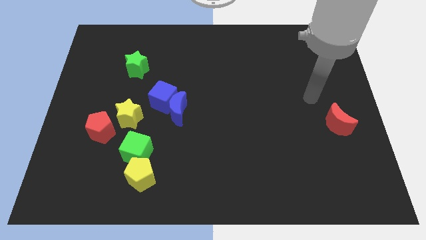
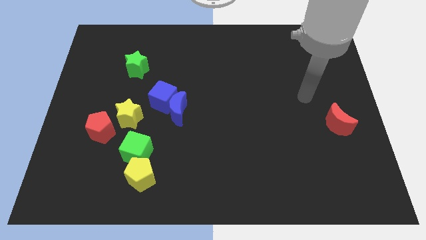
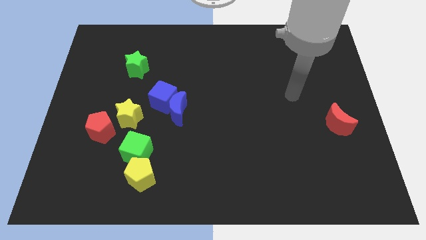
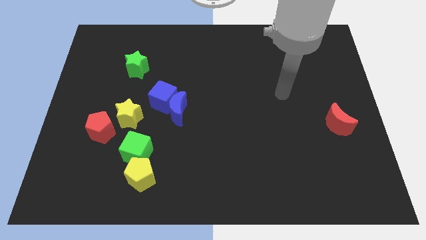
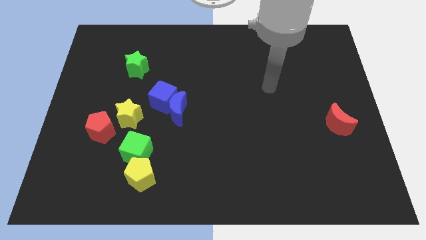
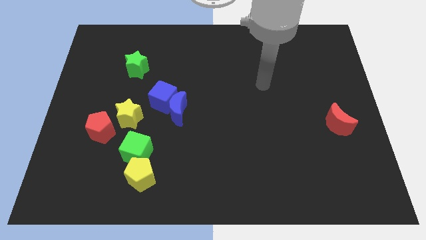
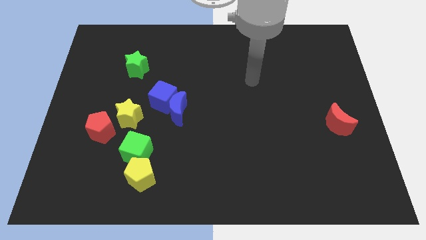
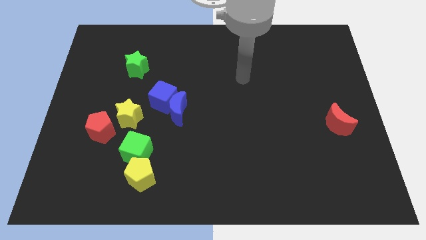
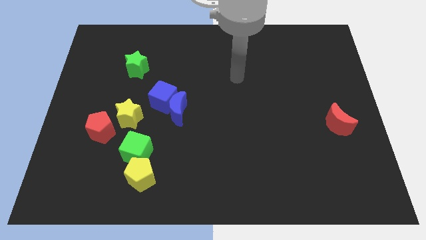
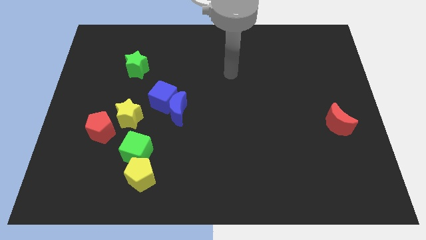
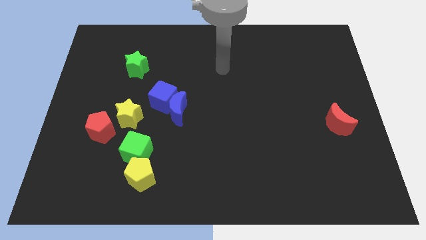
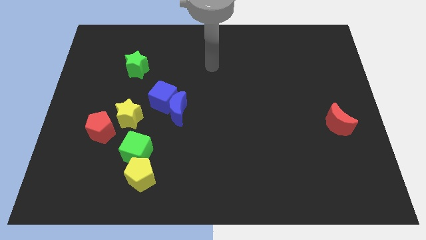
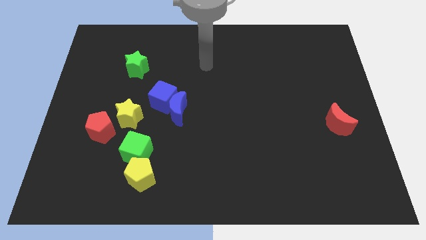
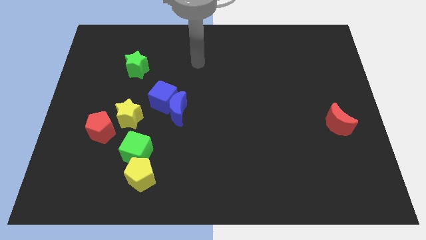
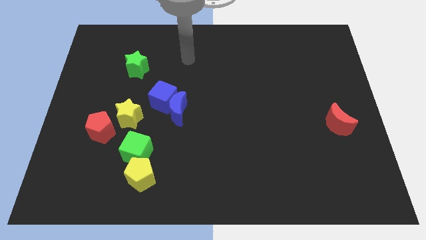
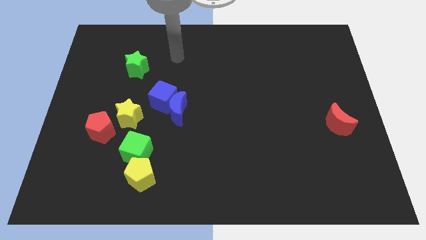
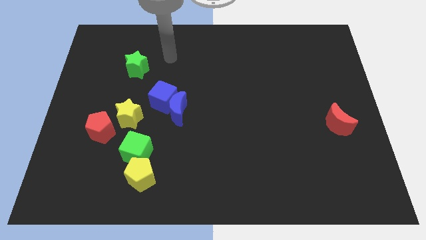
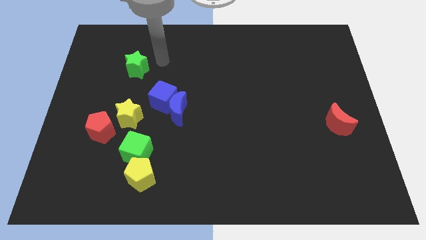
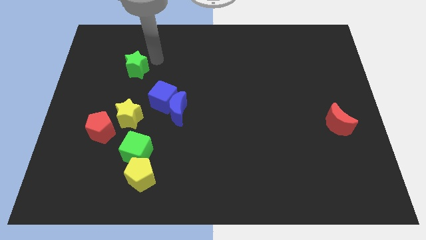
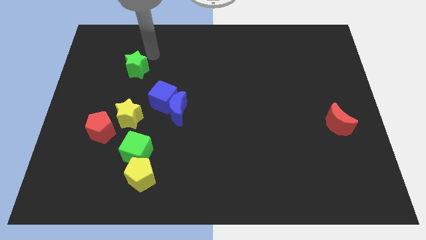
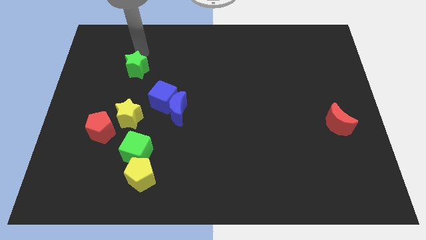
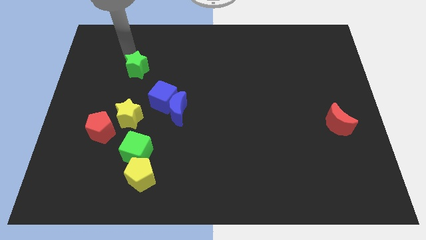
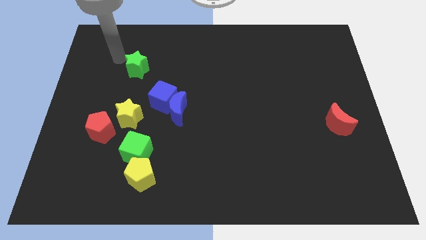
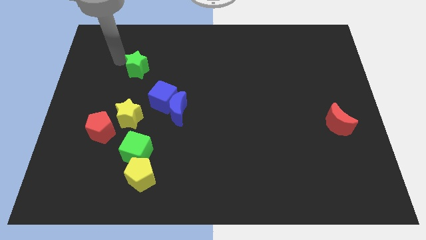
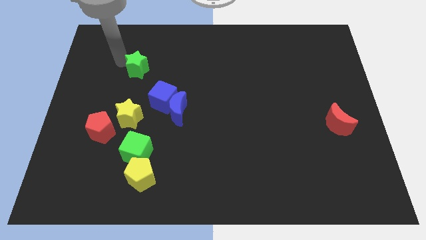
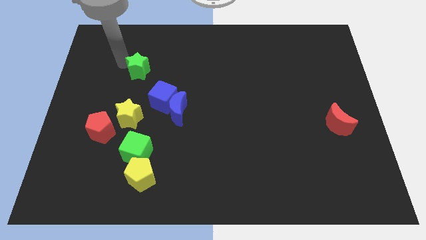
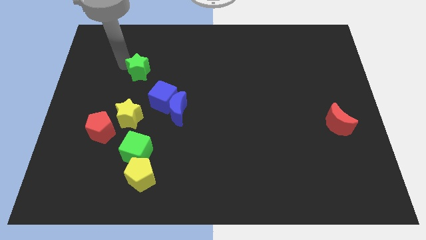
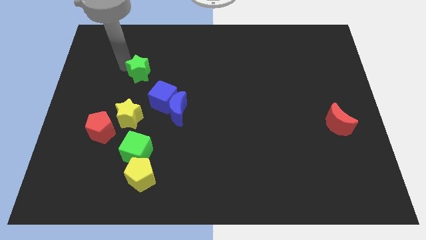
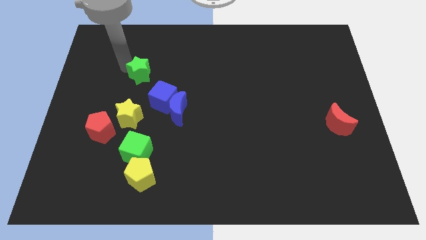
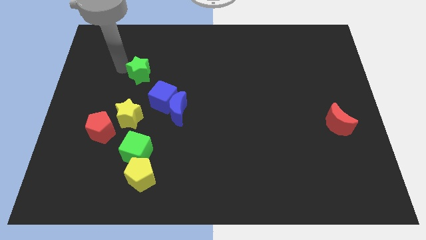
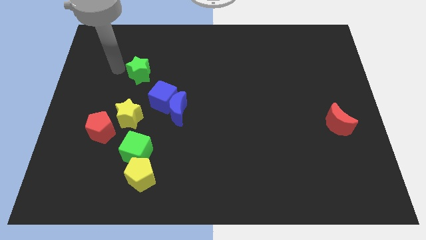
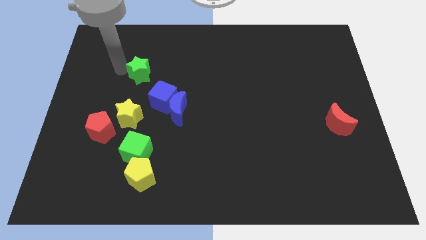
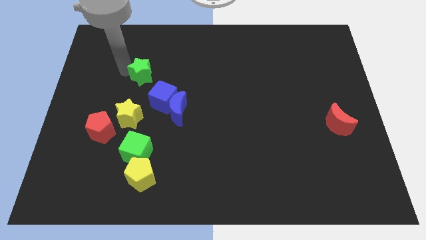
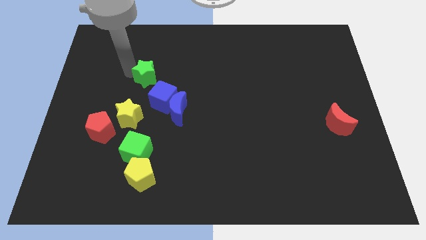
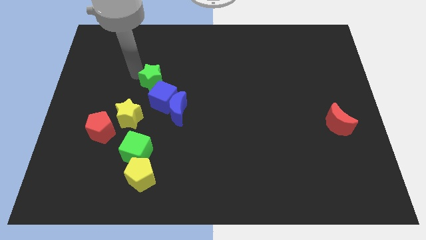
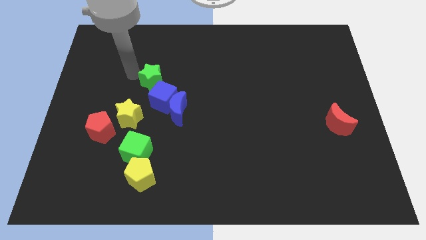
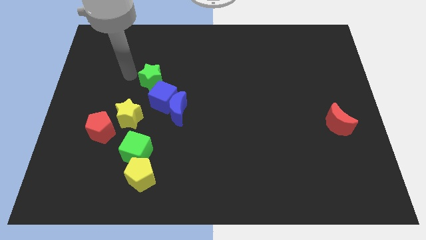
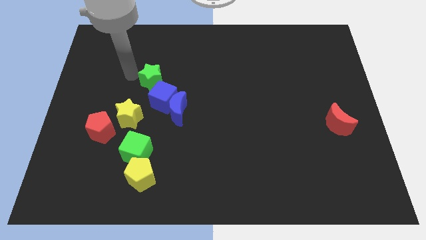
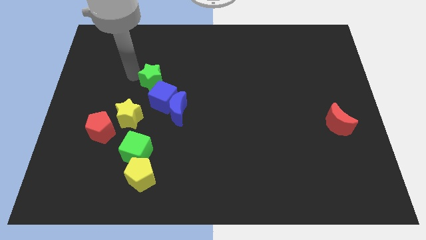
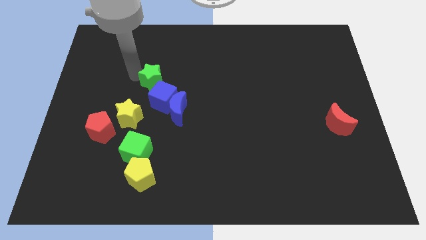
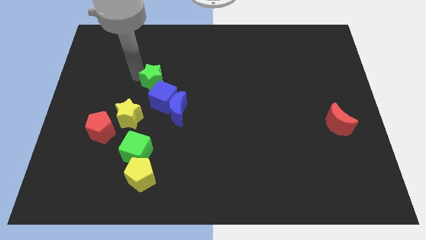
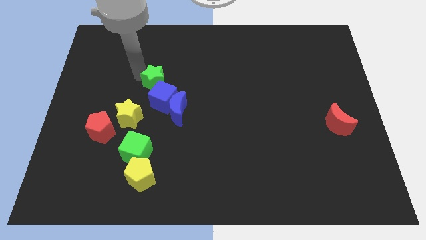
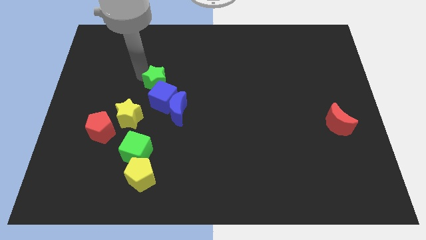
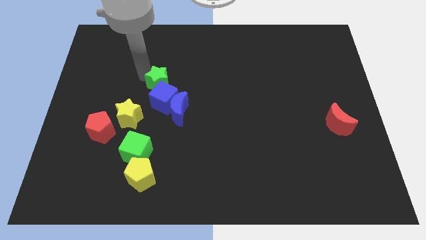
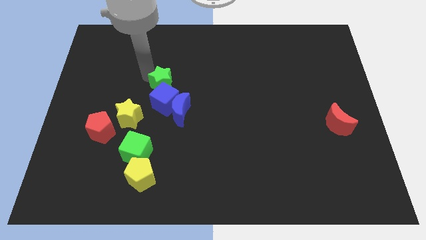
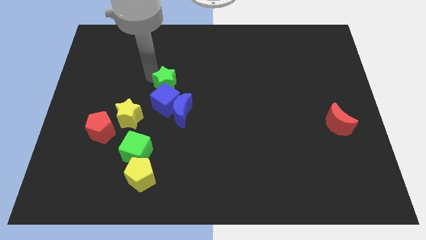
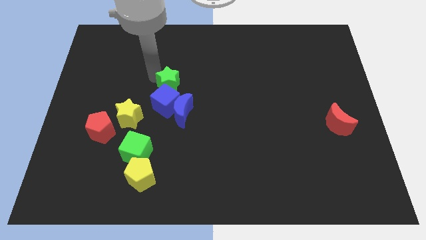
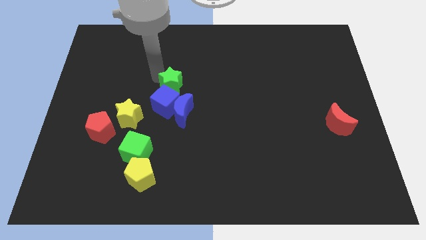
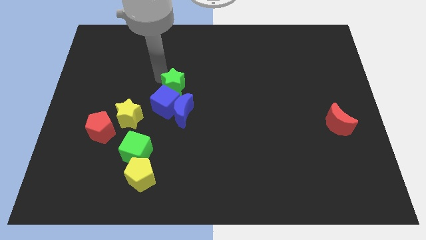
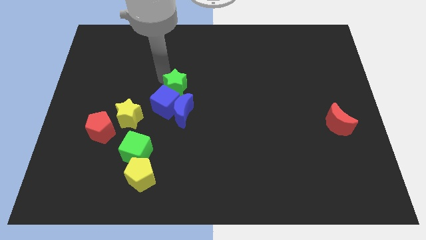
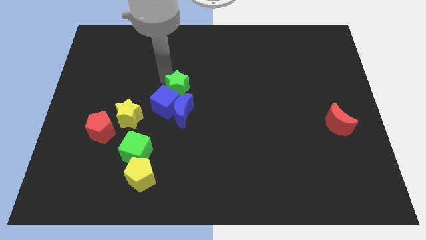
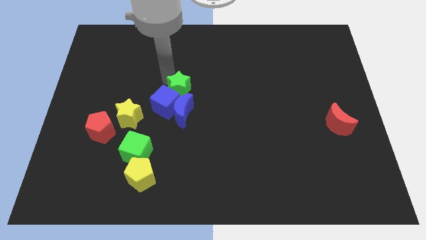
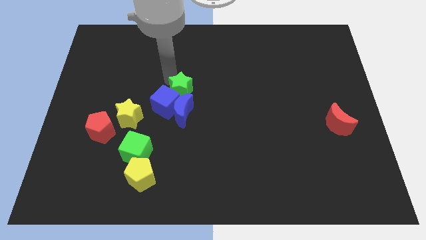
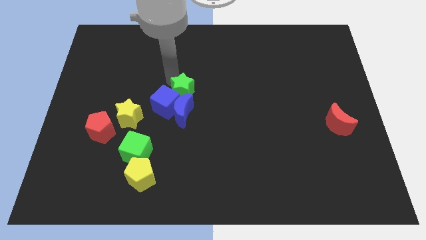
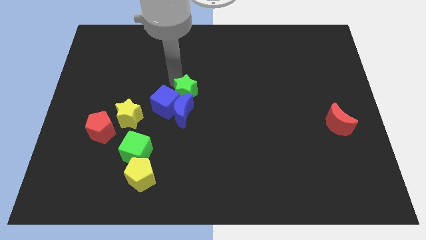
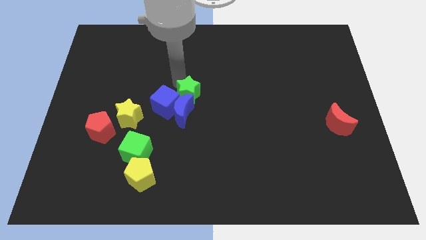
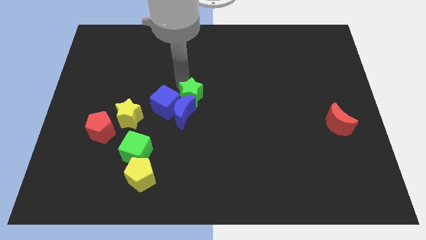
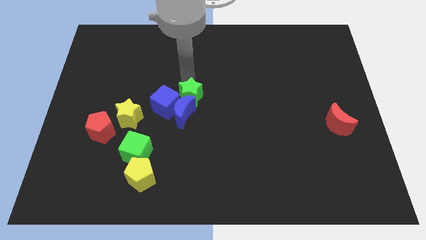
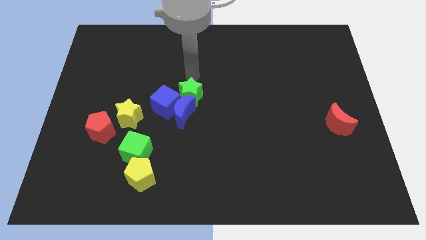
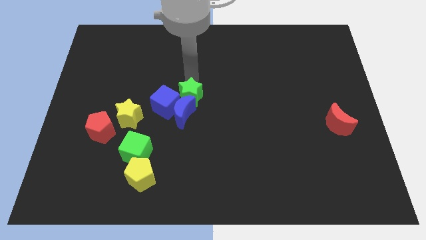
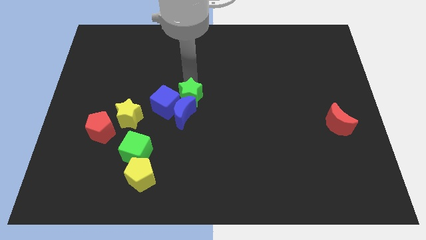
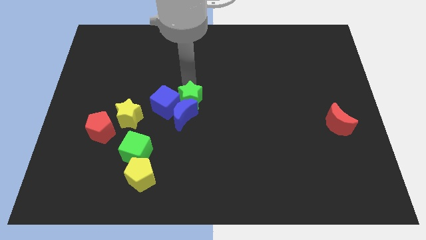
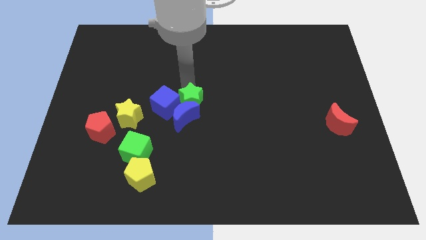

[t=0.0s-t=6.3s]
move the green star to the bottom right side of the blue cube

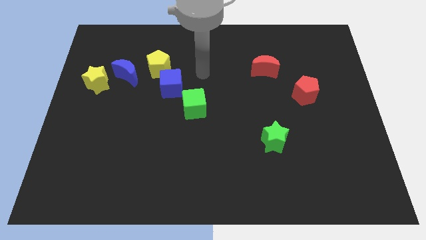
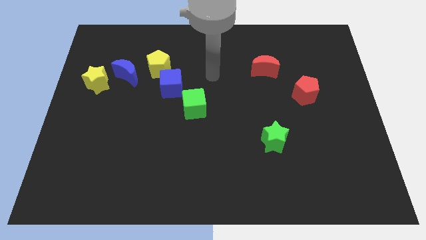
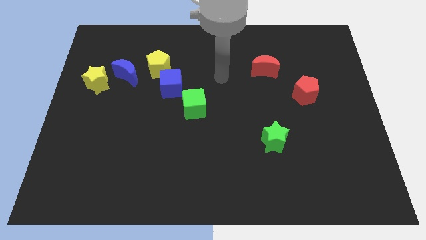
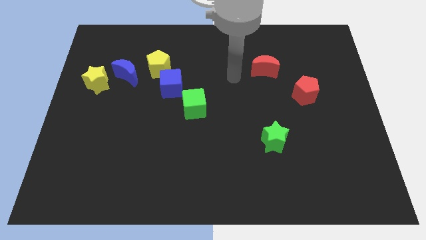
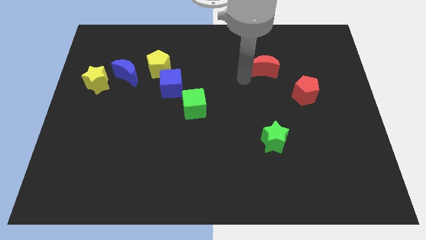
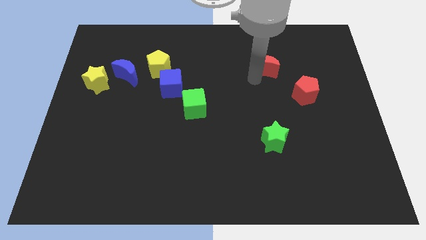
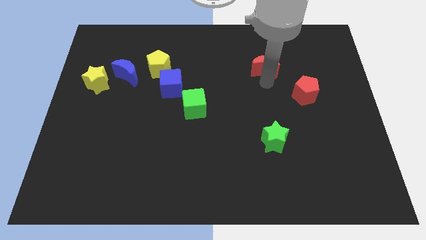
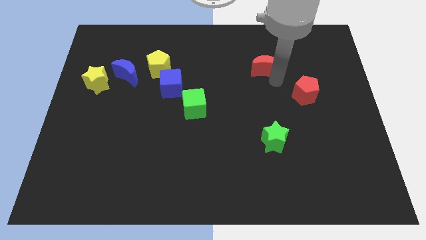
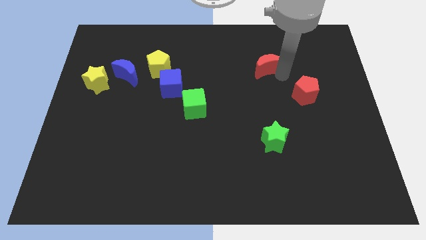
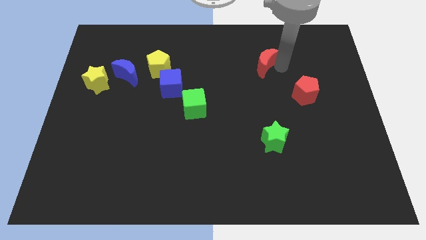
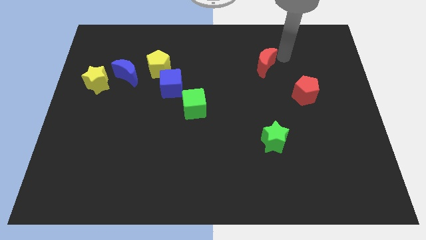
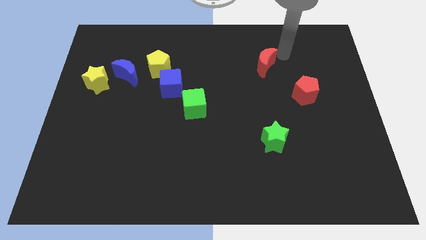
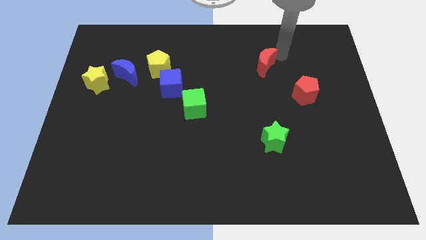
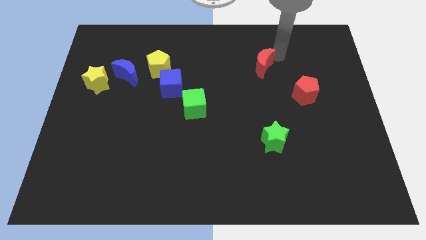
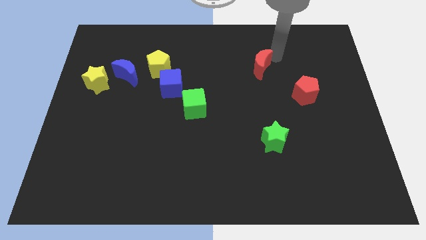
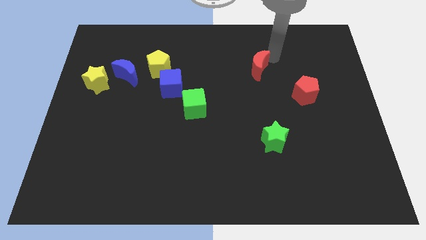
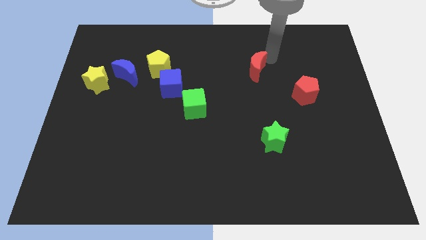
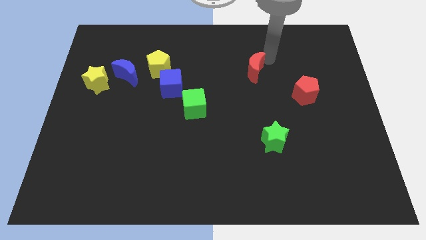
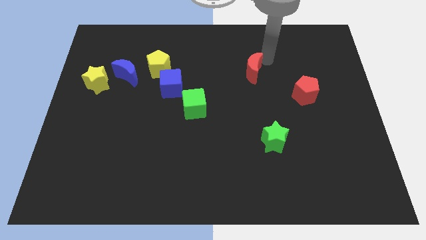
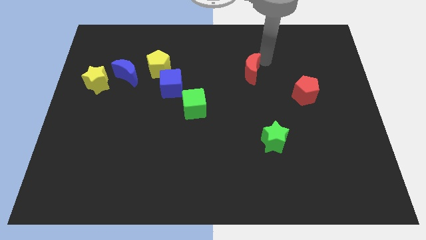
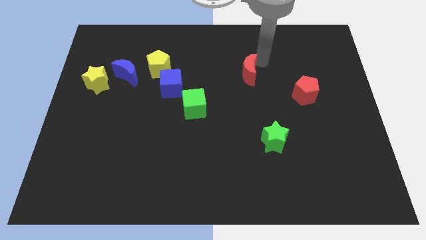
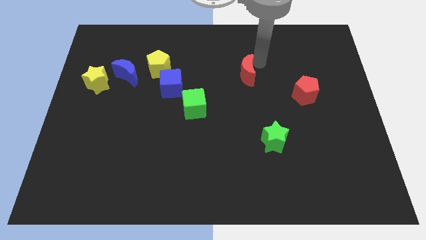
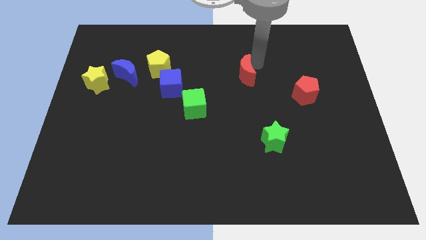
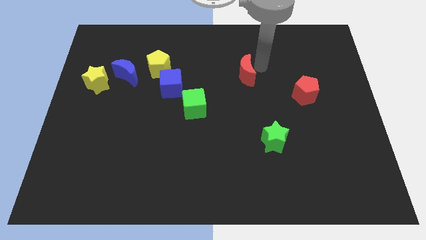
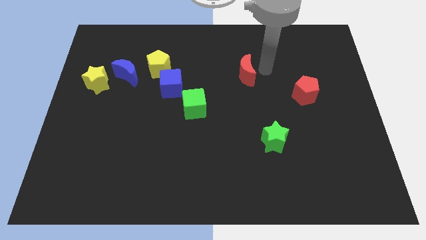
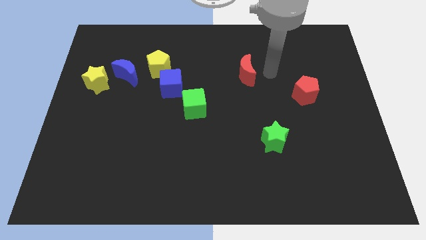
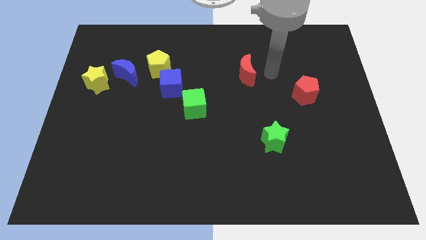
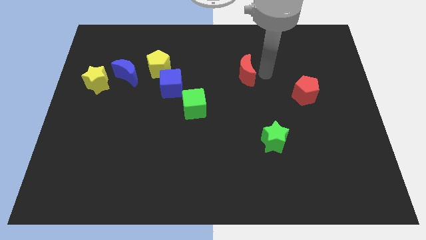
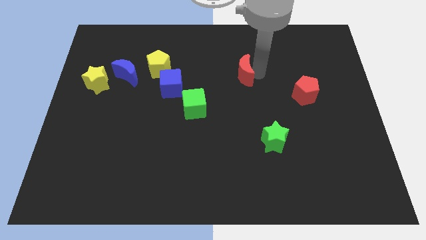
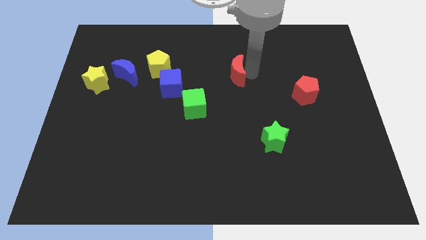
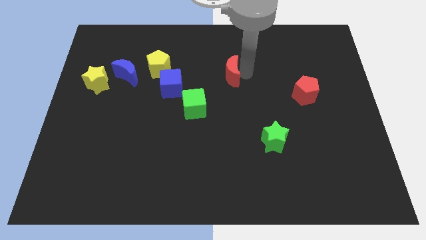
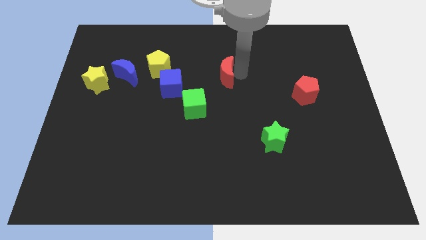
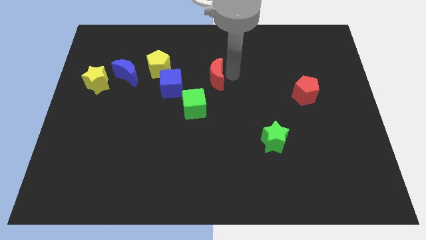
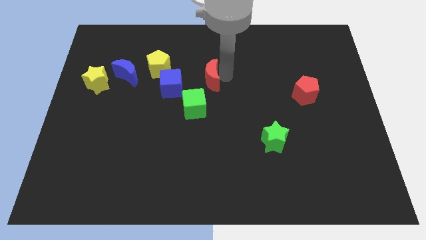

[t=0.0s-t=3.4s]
put the red moon to the top side of the green cube
